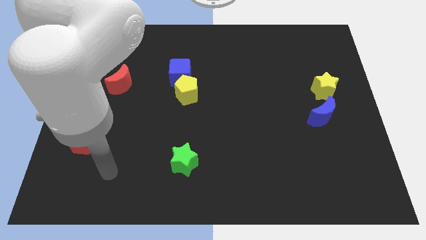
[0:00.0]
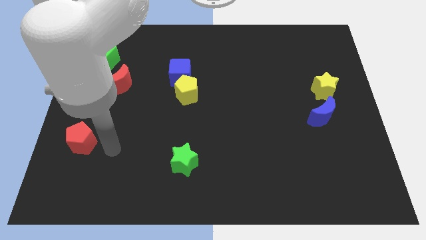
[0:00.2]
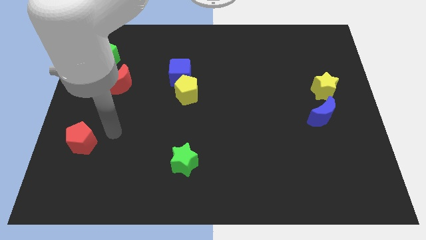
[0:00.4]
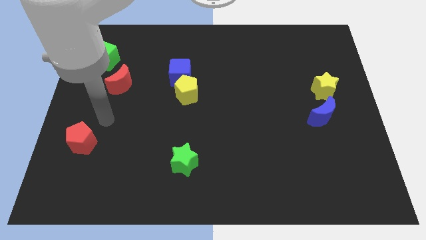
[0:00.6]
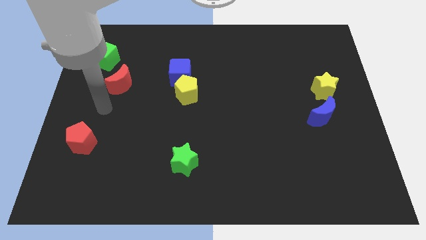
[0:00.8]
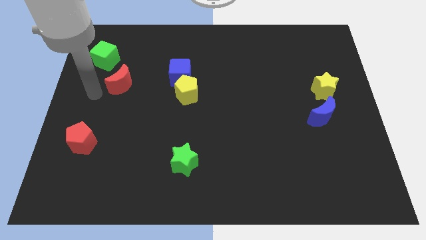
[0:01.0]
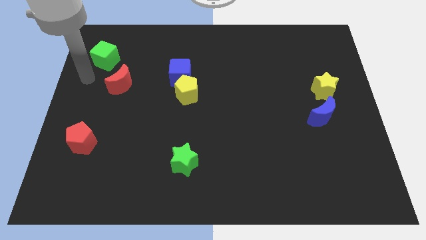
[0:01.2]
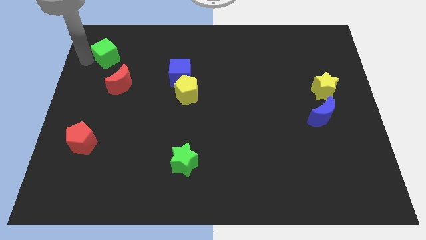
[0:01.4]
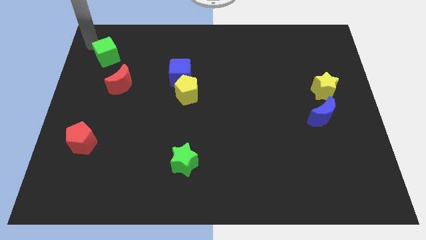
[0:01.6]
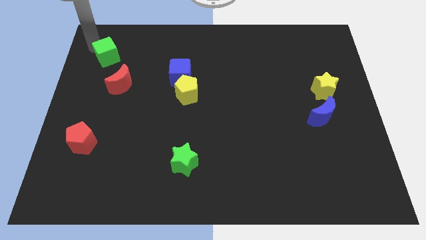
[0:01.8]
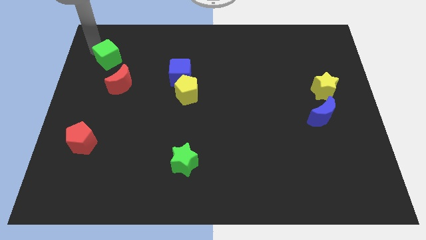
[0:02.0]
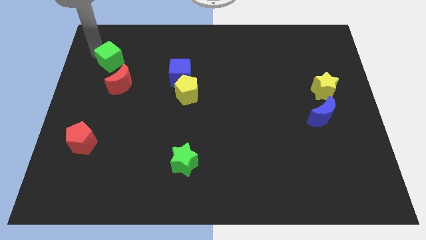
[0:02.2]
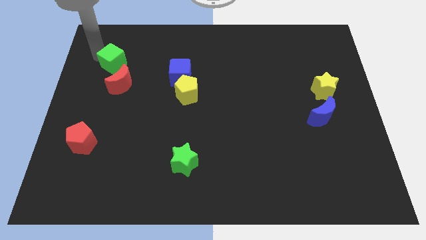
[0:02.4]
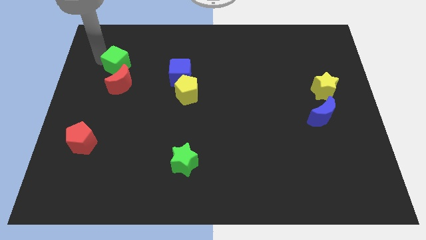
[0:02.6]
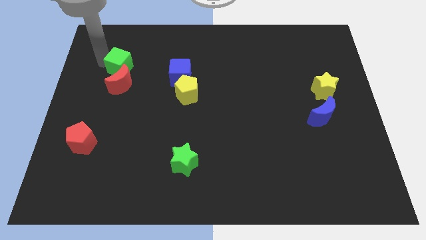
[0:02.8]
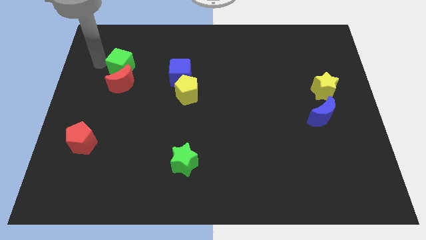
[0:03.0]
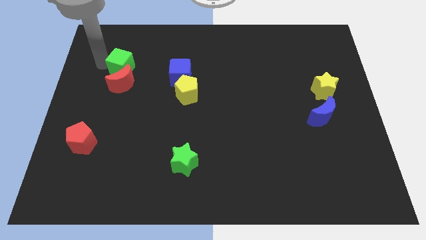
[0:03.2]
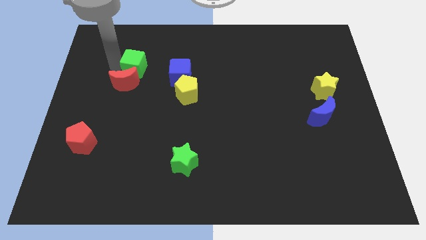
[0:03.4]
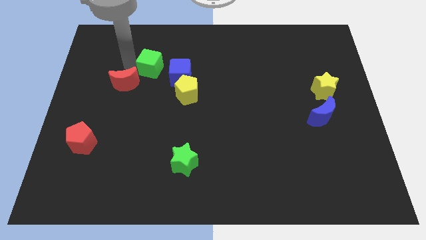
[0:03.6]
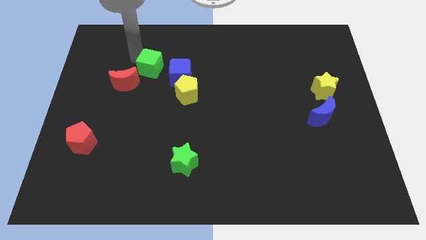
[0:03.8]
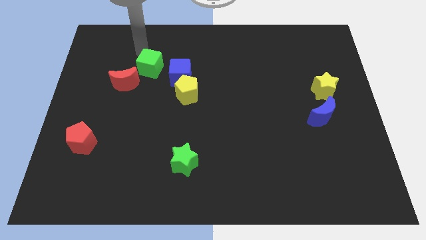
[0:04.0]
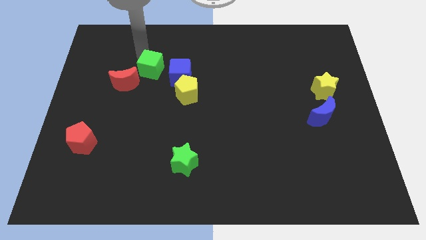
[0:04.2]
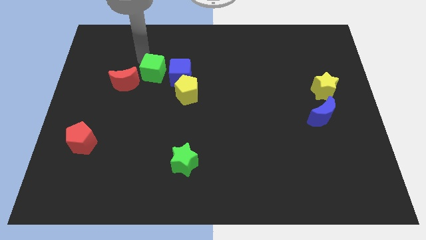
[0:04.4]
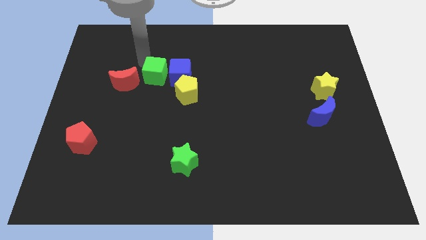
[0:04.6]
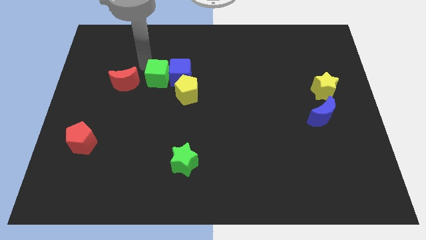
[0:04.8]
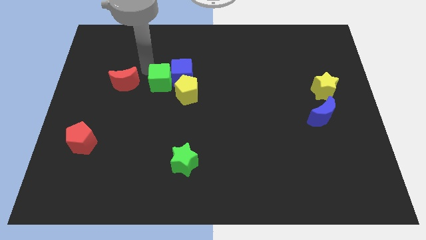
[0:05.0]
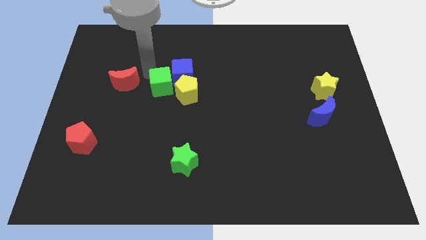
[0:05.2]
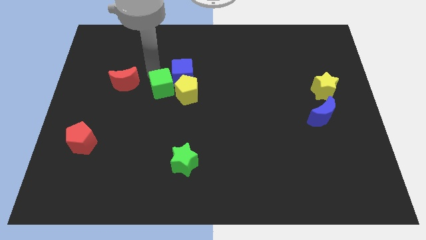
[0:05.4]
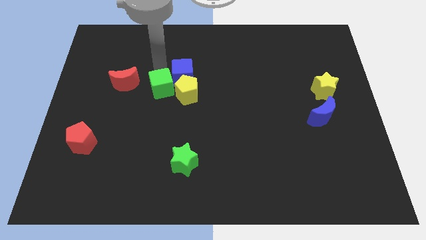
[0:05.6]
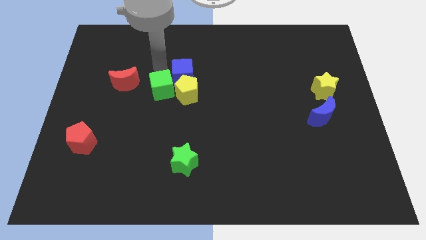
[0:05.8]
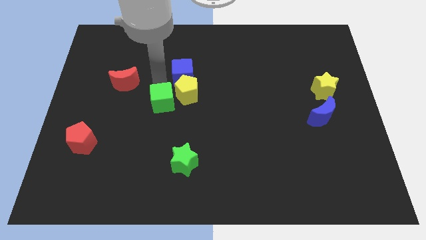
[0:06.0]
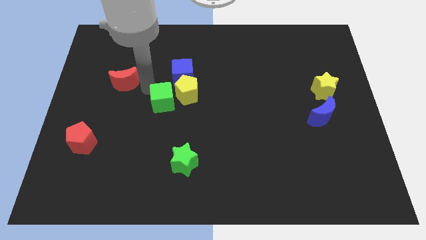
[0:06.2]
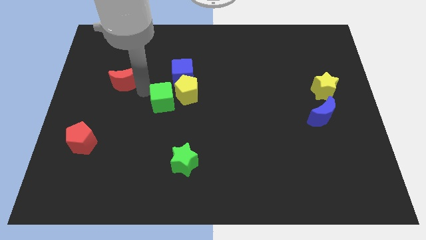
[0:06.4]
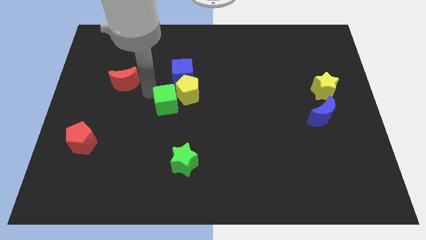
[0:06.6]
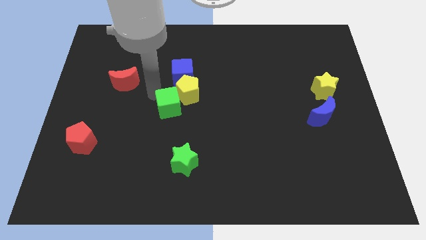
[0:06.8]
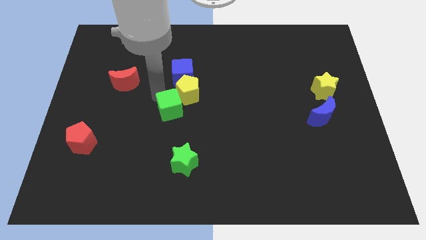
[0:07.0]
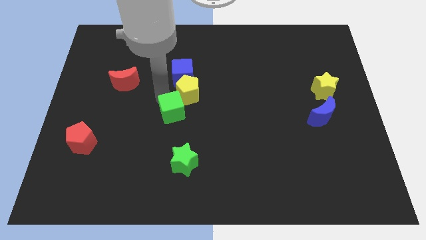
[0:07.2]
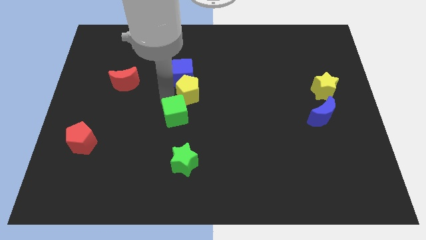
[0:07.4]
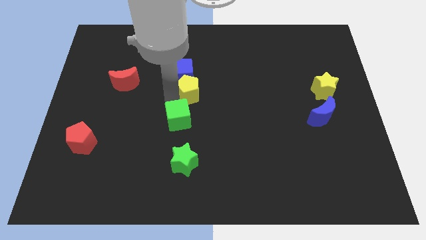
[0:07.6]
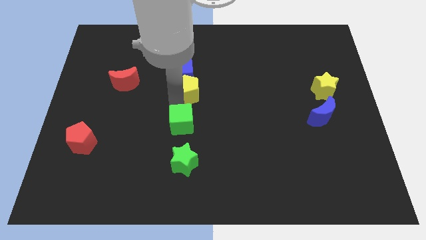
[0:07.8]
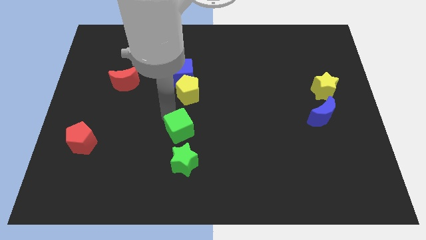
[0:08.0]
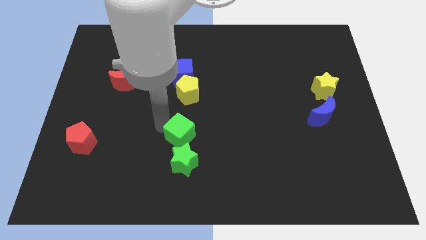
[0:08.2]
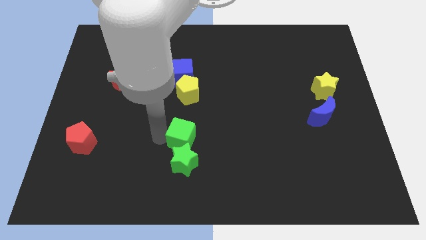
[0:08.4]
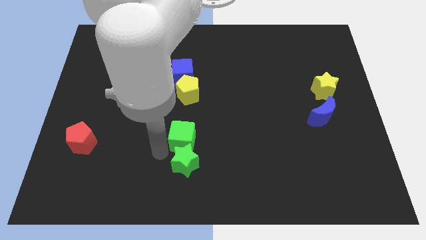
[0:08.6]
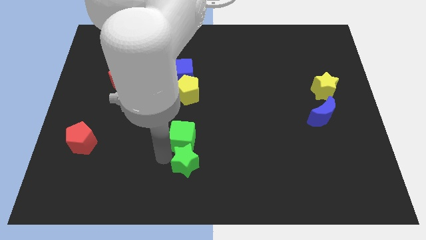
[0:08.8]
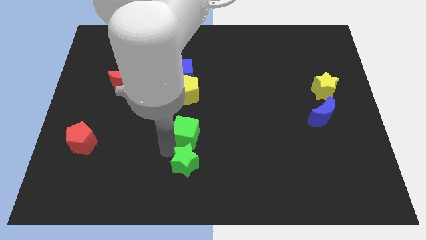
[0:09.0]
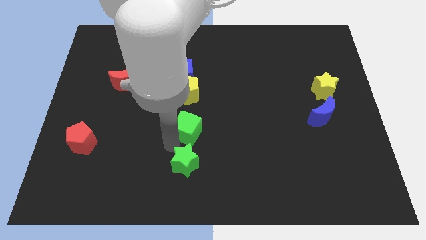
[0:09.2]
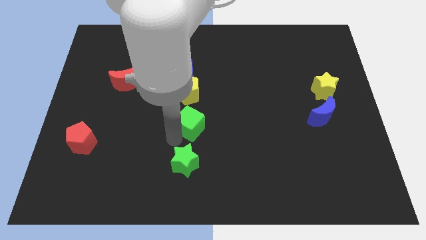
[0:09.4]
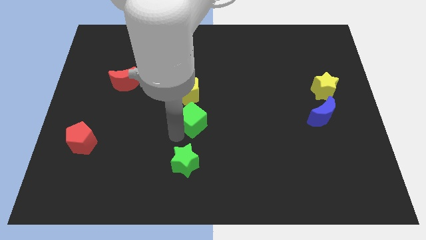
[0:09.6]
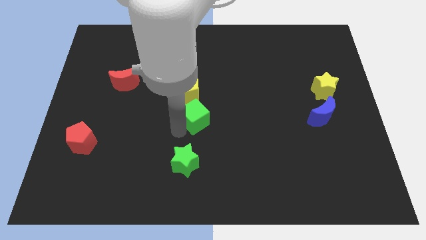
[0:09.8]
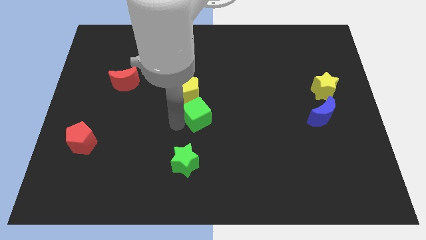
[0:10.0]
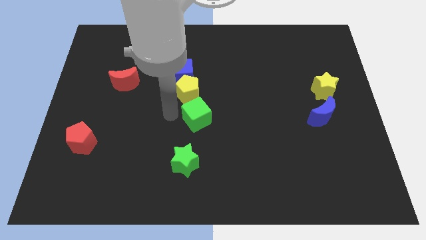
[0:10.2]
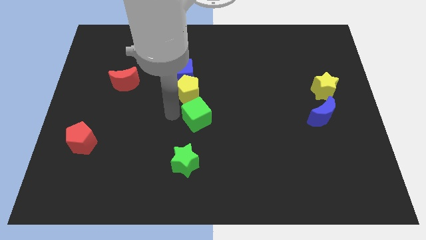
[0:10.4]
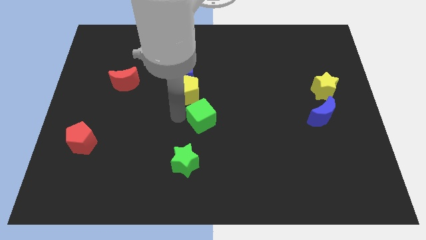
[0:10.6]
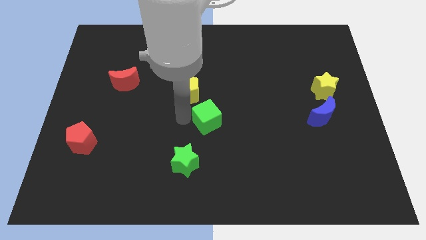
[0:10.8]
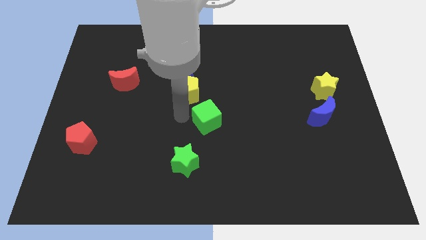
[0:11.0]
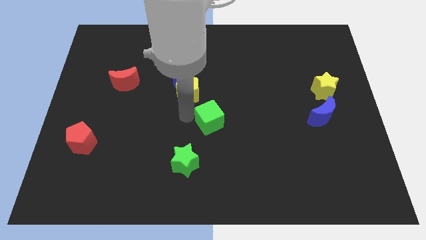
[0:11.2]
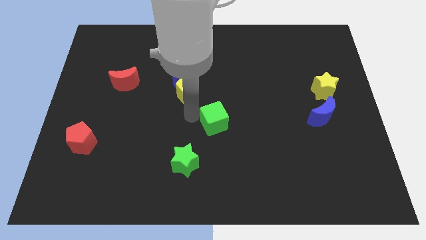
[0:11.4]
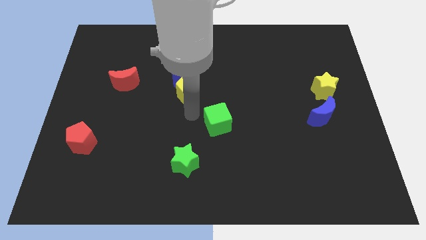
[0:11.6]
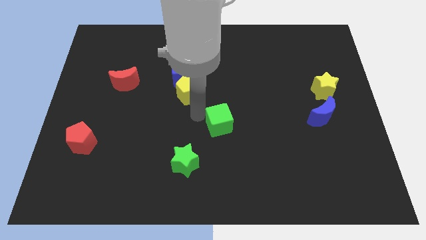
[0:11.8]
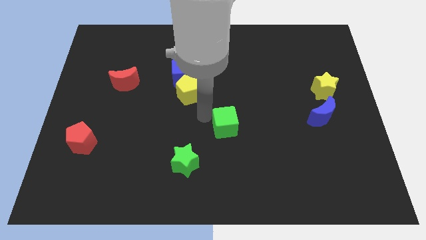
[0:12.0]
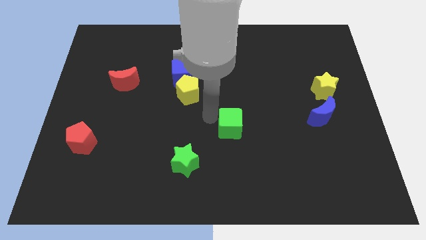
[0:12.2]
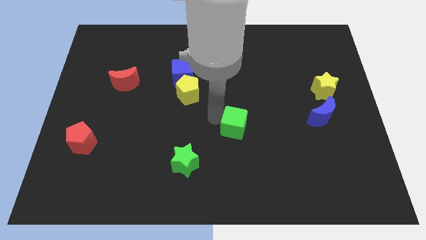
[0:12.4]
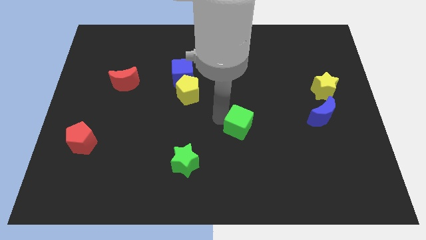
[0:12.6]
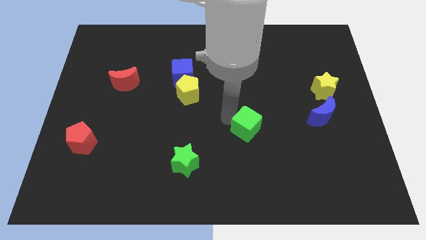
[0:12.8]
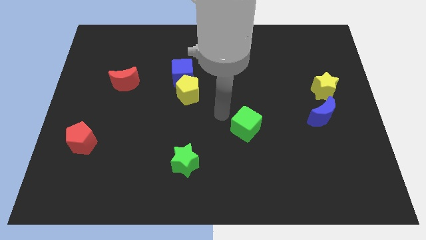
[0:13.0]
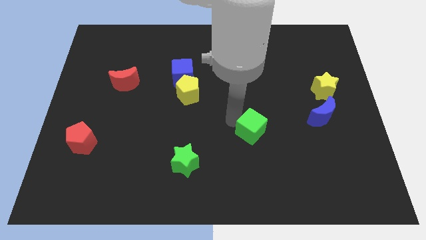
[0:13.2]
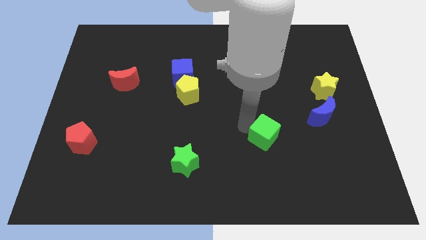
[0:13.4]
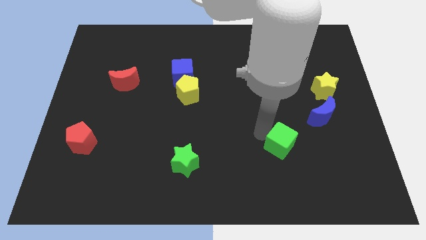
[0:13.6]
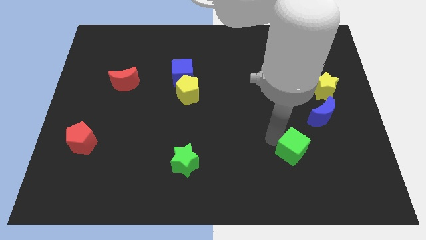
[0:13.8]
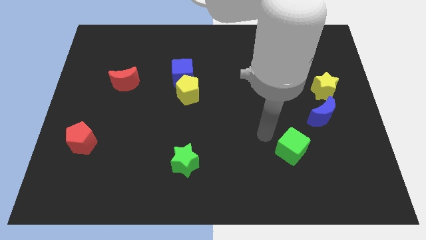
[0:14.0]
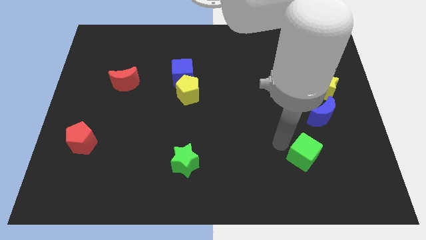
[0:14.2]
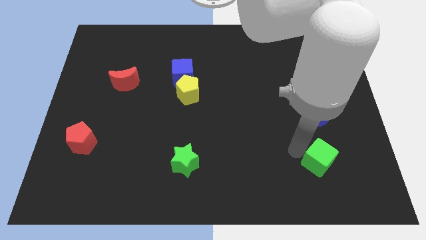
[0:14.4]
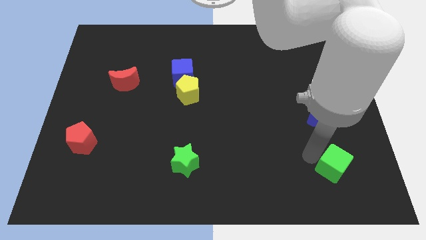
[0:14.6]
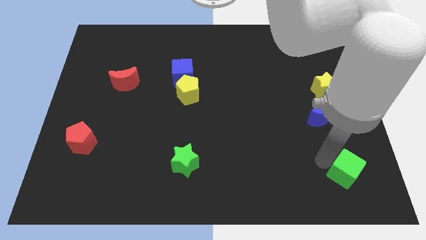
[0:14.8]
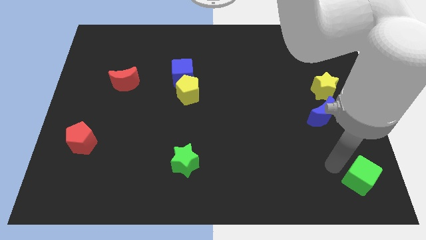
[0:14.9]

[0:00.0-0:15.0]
slide the green cube to the lower right corner
